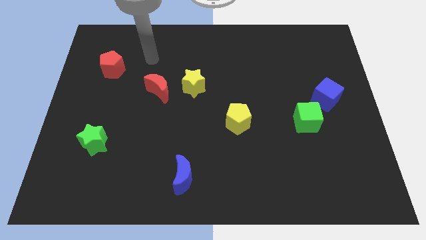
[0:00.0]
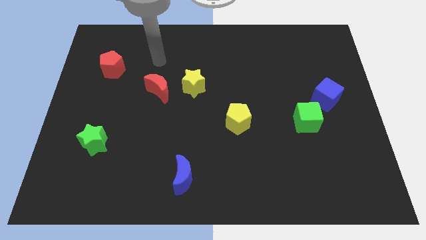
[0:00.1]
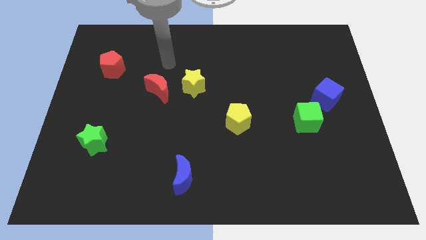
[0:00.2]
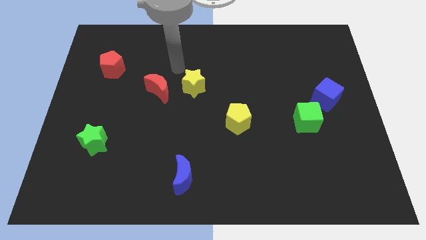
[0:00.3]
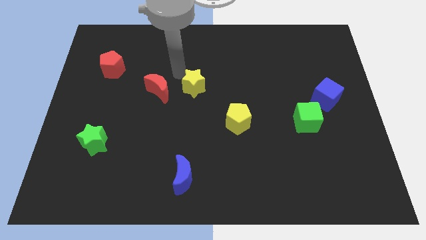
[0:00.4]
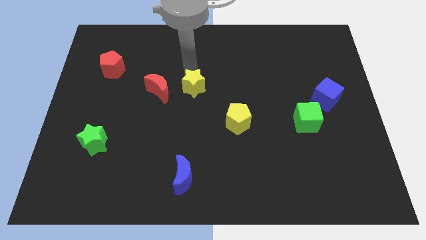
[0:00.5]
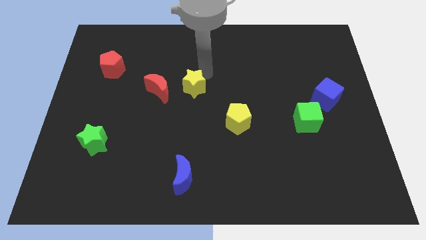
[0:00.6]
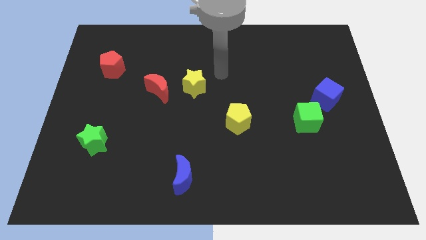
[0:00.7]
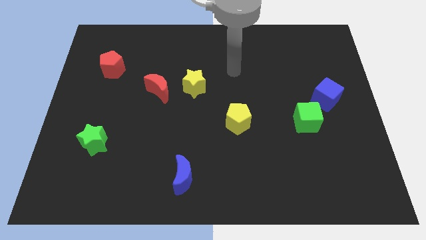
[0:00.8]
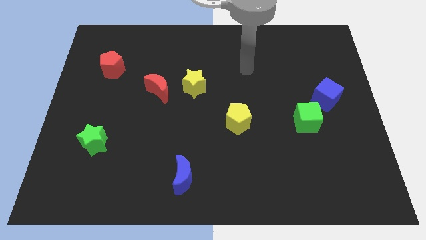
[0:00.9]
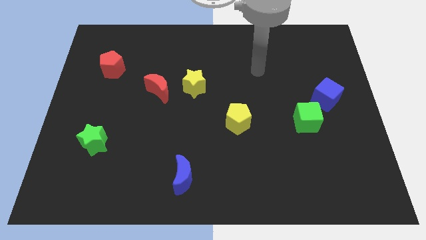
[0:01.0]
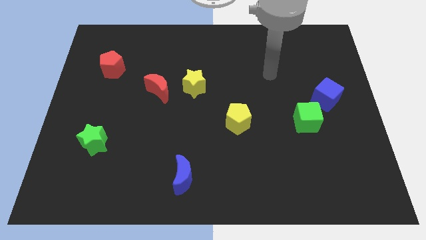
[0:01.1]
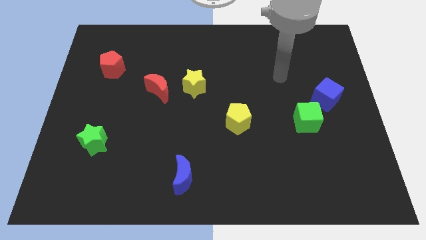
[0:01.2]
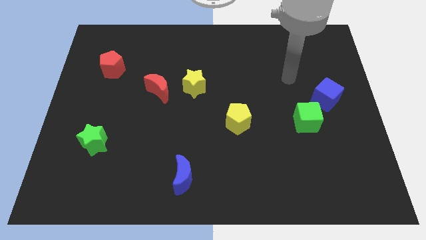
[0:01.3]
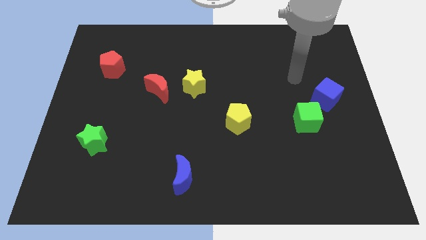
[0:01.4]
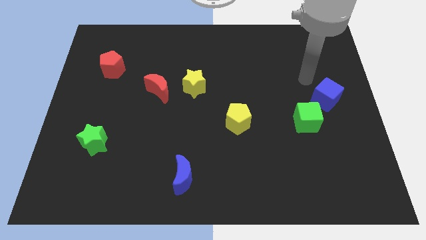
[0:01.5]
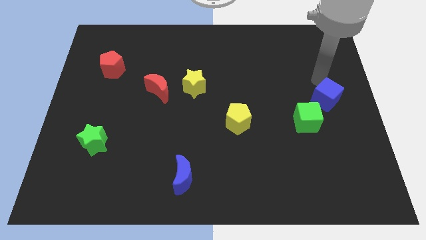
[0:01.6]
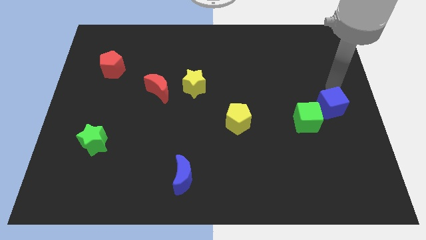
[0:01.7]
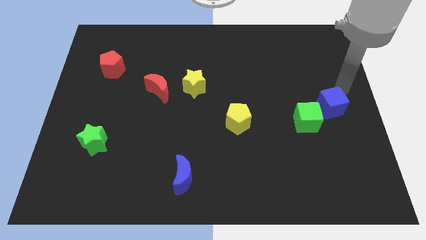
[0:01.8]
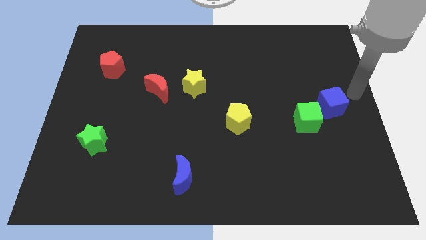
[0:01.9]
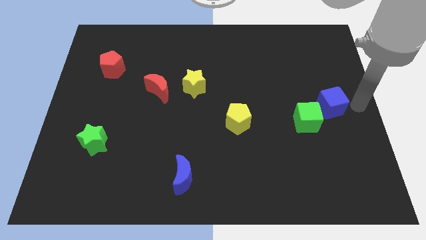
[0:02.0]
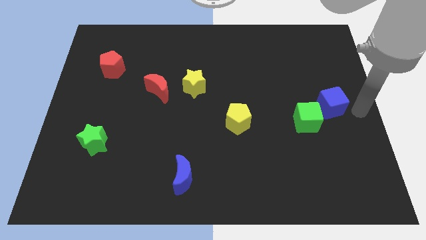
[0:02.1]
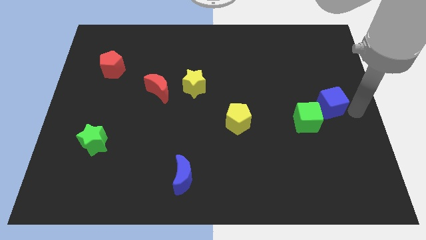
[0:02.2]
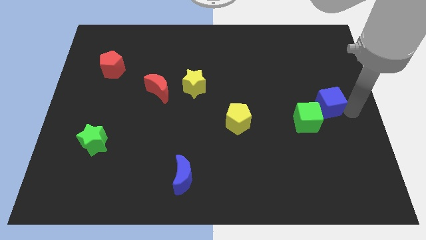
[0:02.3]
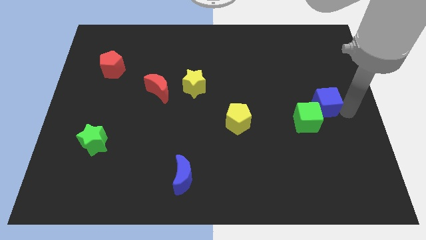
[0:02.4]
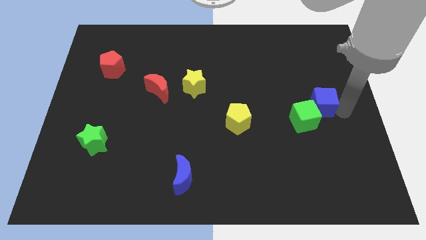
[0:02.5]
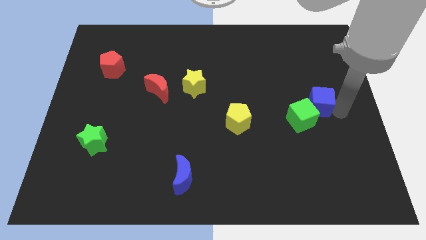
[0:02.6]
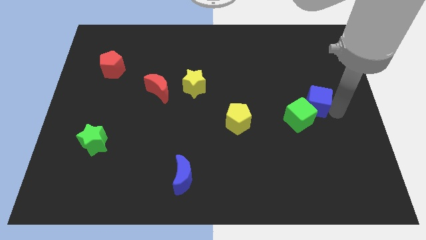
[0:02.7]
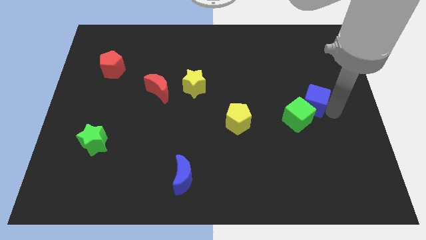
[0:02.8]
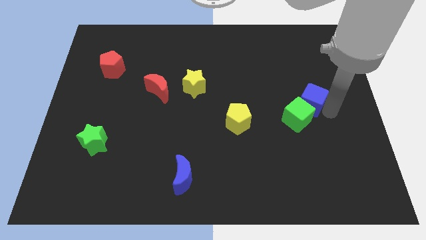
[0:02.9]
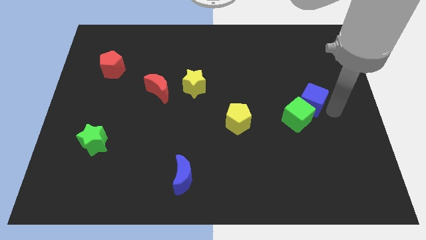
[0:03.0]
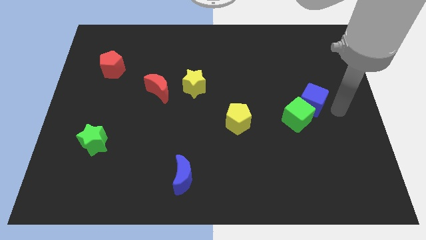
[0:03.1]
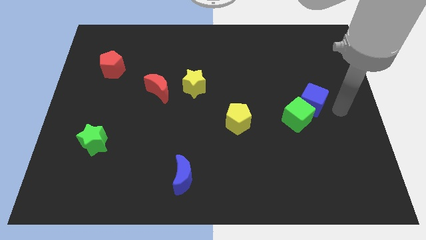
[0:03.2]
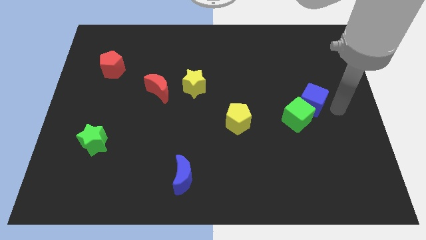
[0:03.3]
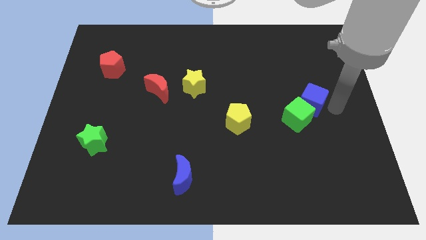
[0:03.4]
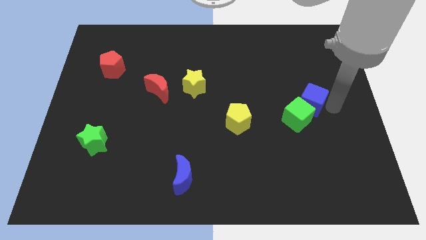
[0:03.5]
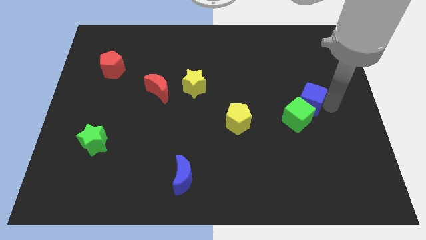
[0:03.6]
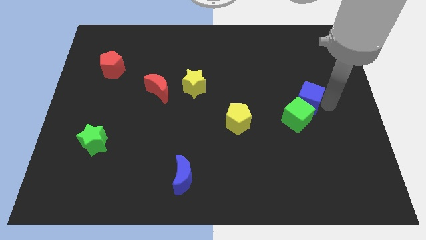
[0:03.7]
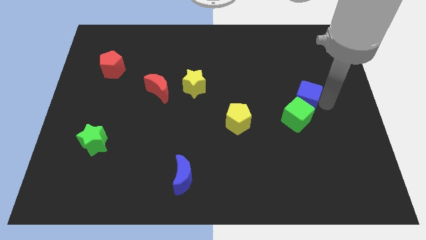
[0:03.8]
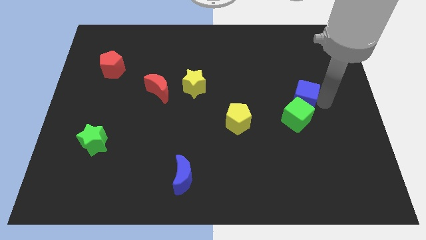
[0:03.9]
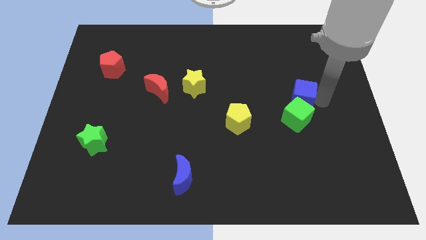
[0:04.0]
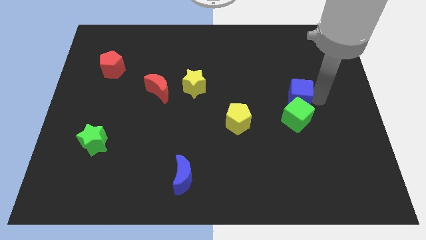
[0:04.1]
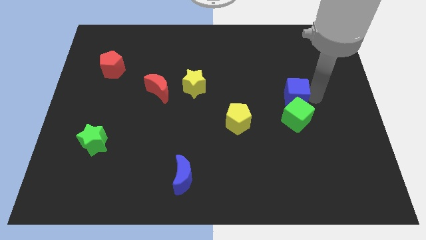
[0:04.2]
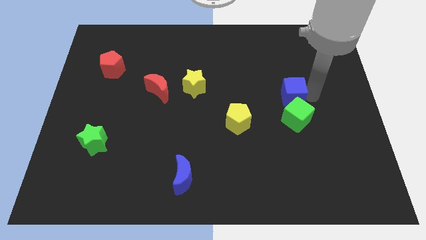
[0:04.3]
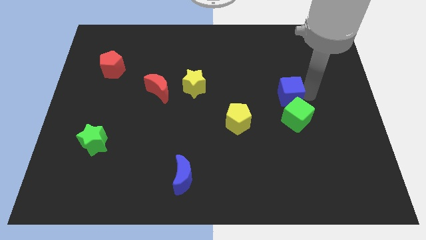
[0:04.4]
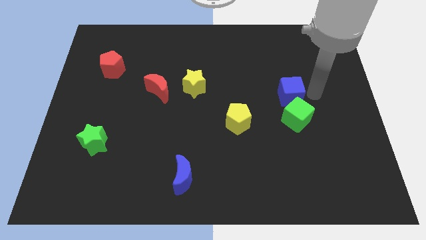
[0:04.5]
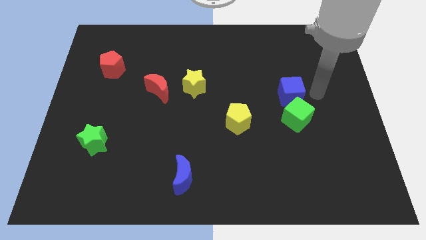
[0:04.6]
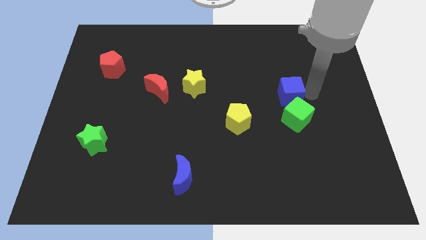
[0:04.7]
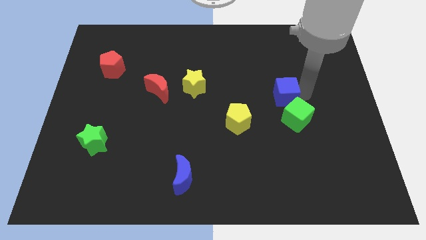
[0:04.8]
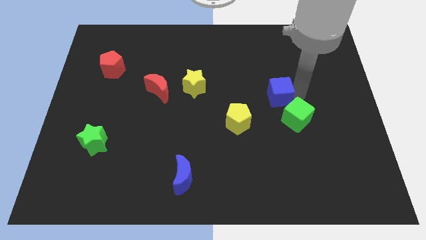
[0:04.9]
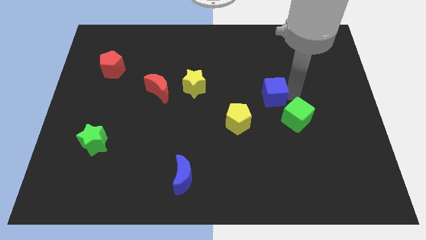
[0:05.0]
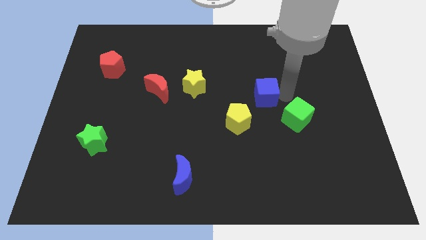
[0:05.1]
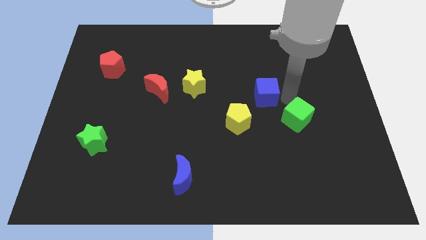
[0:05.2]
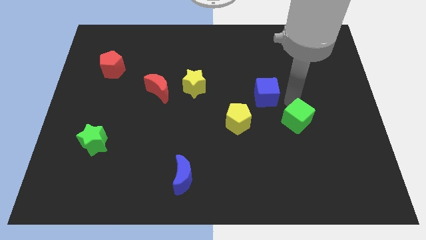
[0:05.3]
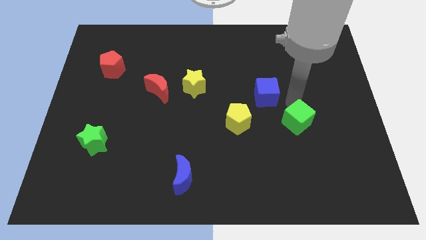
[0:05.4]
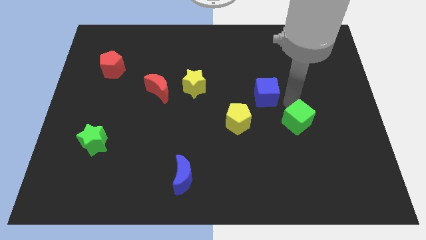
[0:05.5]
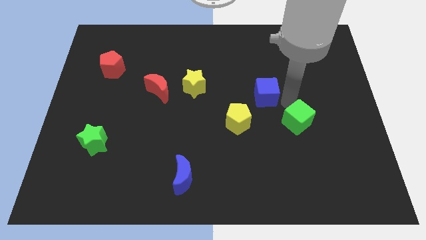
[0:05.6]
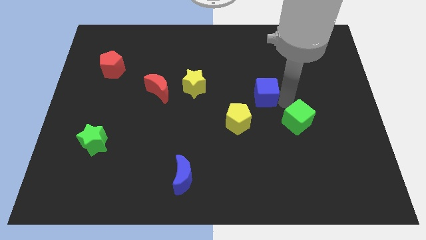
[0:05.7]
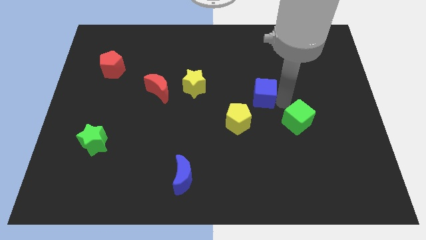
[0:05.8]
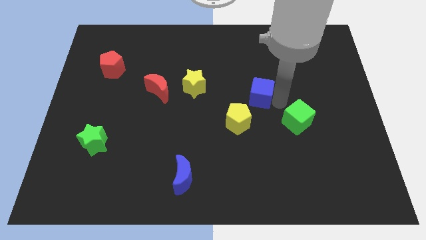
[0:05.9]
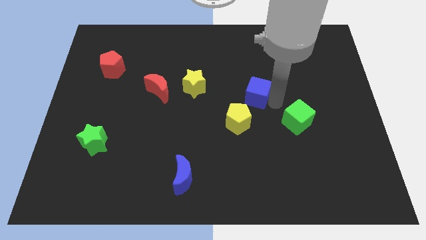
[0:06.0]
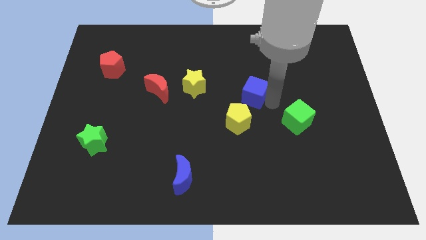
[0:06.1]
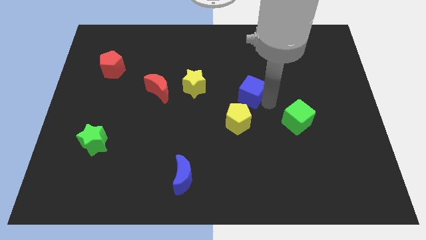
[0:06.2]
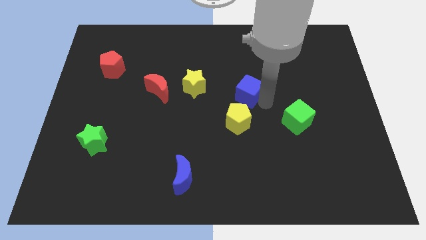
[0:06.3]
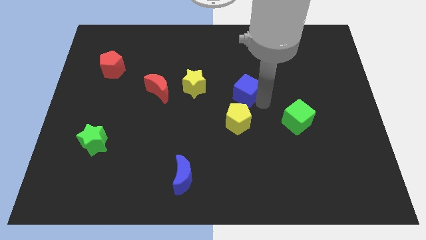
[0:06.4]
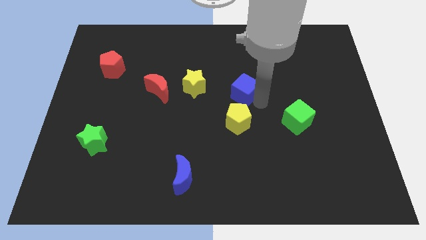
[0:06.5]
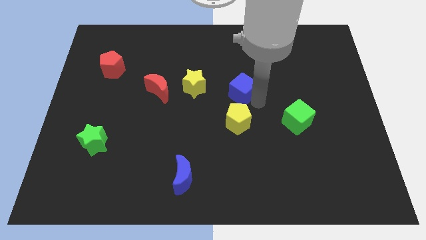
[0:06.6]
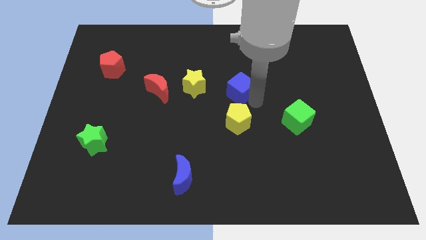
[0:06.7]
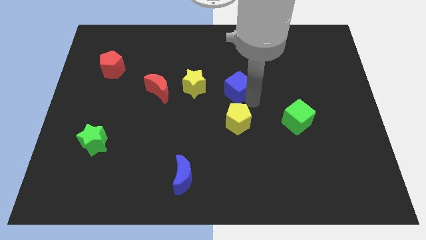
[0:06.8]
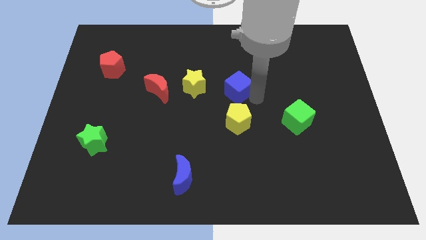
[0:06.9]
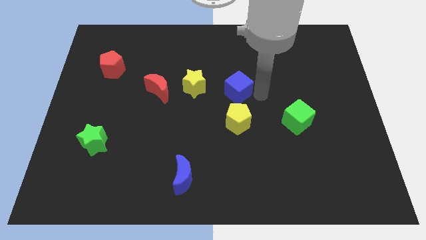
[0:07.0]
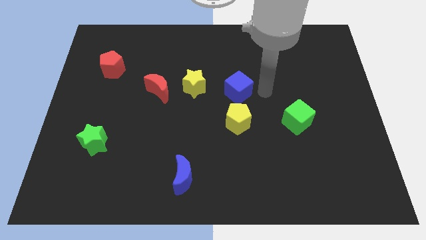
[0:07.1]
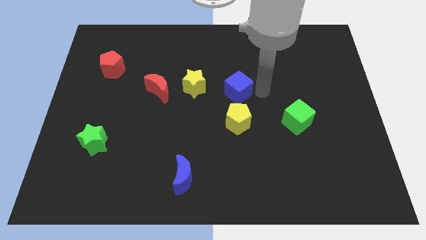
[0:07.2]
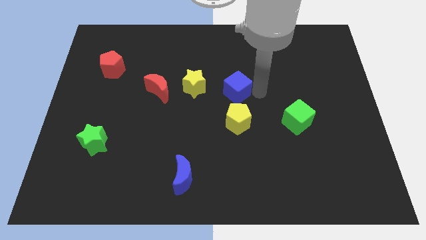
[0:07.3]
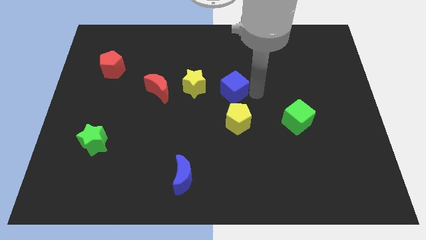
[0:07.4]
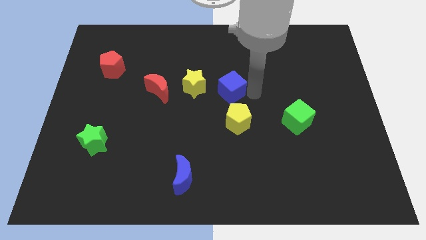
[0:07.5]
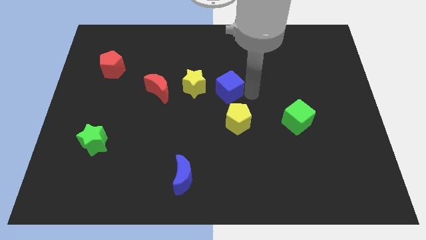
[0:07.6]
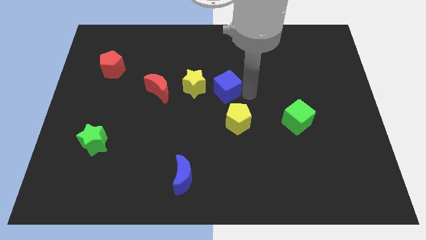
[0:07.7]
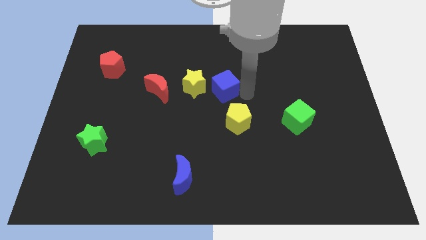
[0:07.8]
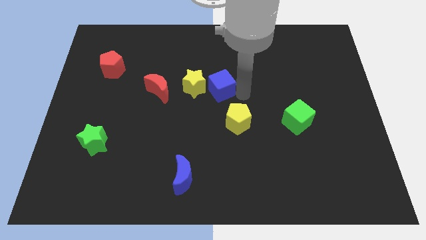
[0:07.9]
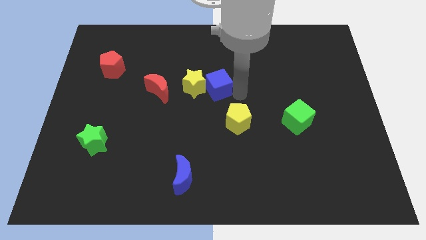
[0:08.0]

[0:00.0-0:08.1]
push the blue cube to the yellow star
